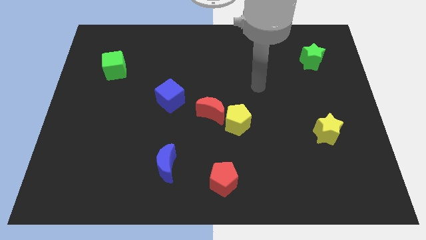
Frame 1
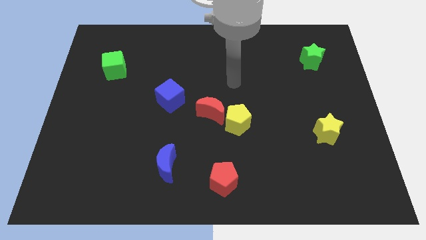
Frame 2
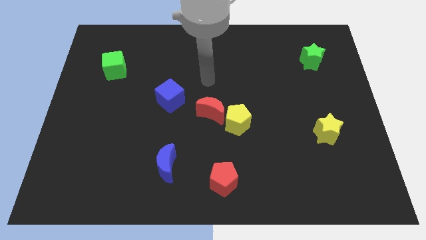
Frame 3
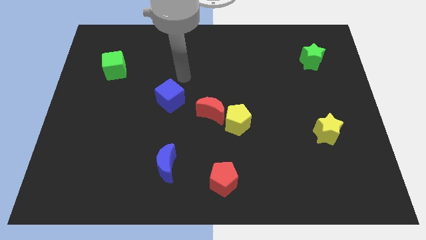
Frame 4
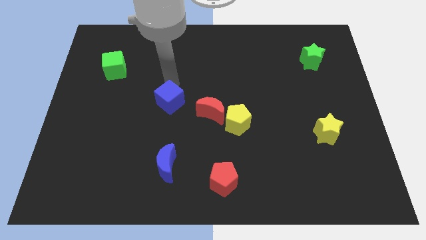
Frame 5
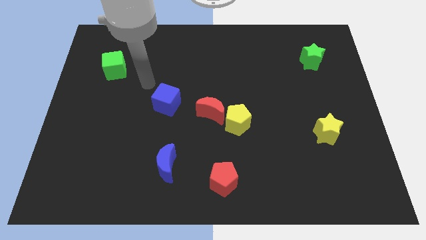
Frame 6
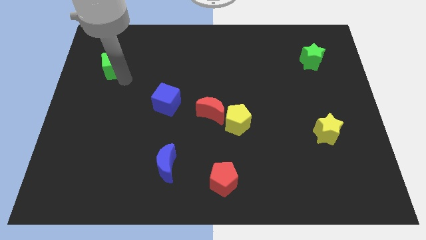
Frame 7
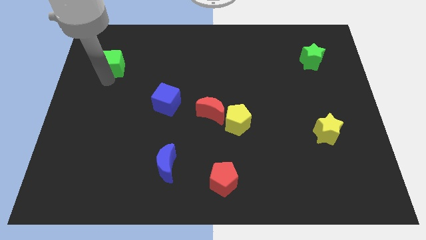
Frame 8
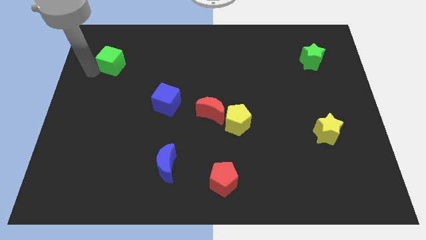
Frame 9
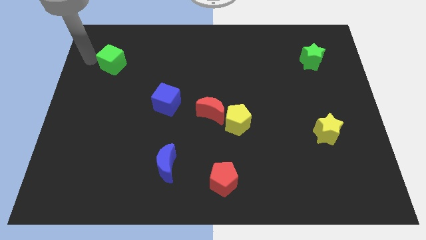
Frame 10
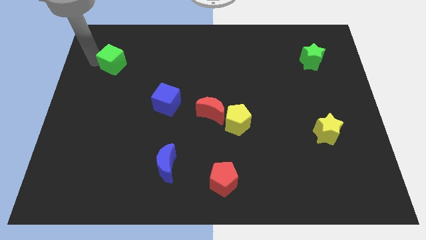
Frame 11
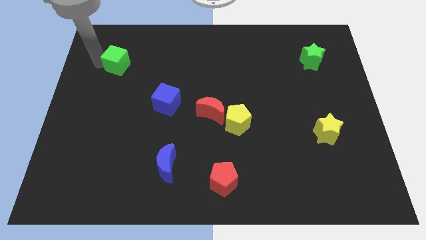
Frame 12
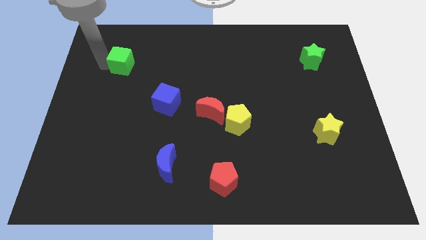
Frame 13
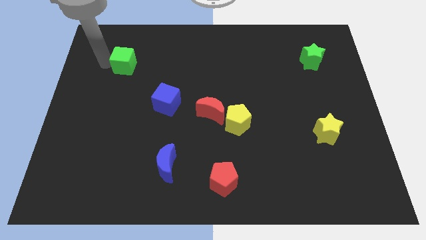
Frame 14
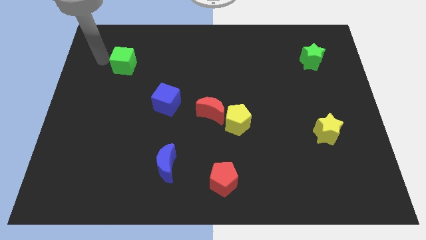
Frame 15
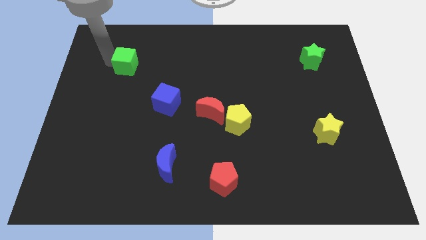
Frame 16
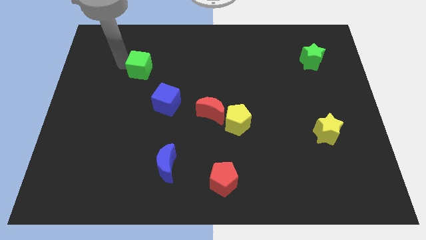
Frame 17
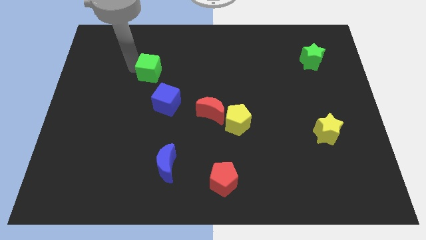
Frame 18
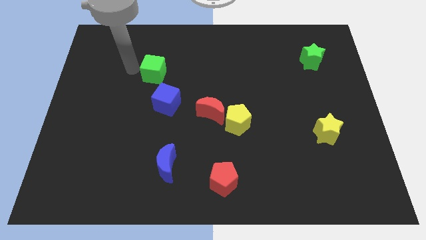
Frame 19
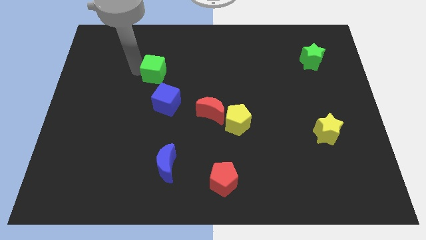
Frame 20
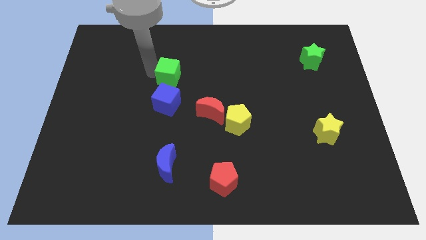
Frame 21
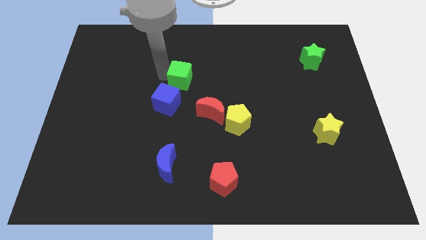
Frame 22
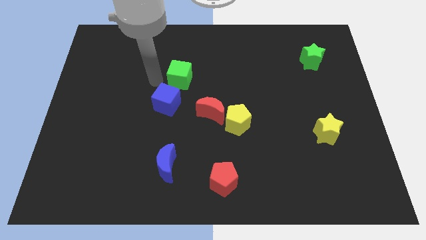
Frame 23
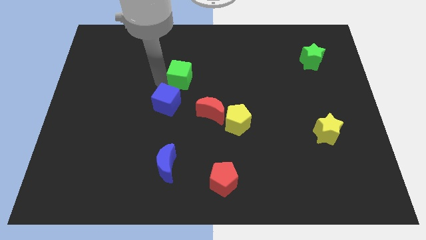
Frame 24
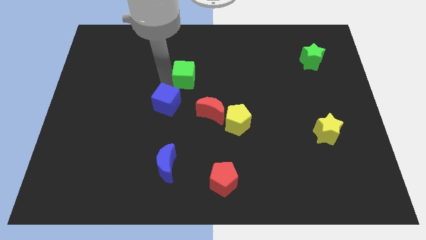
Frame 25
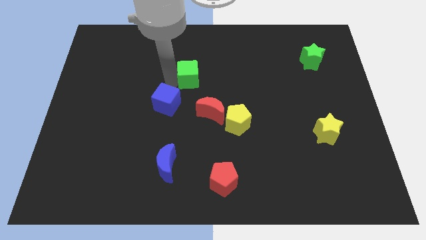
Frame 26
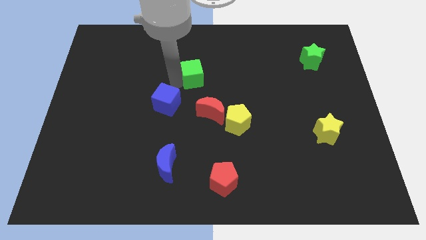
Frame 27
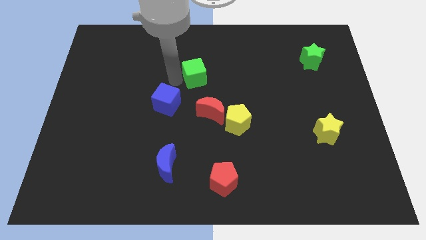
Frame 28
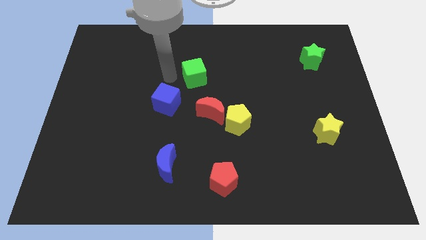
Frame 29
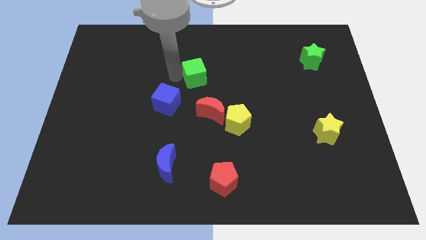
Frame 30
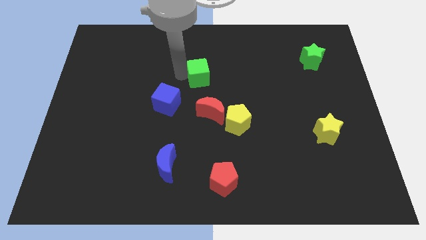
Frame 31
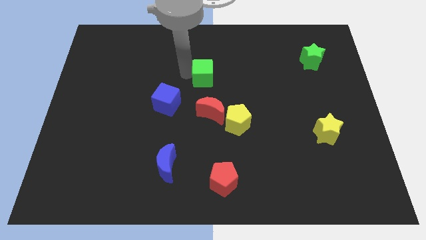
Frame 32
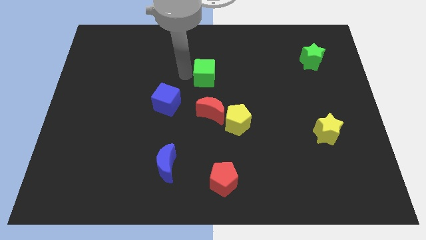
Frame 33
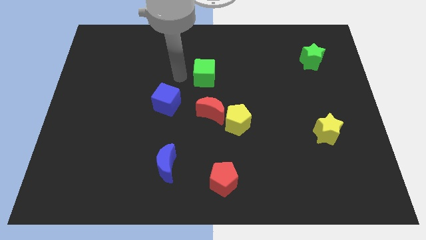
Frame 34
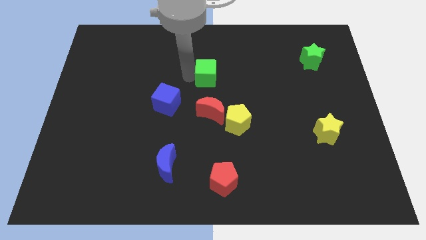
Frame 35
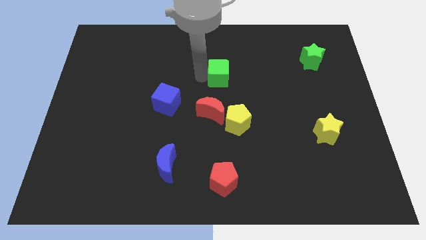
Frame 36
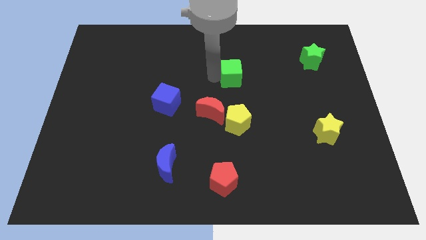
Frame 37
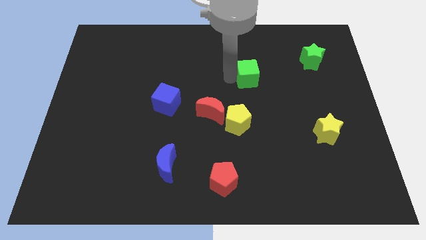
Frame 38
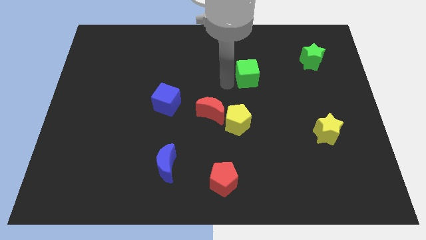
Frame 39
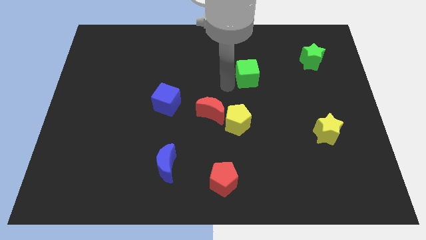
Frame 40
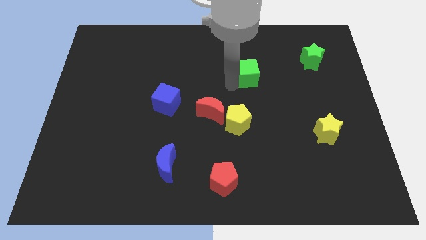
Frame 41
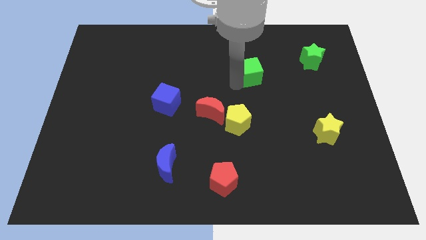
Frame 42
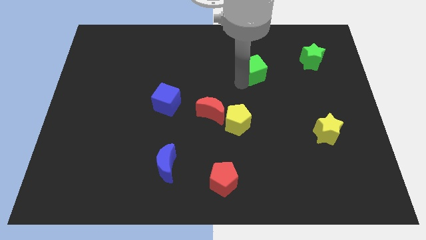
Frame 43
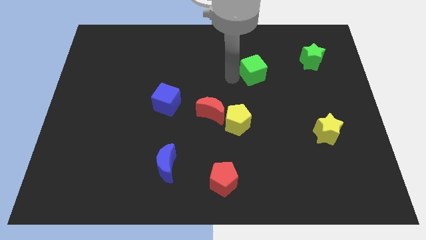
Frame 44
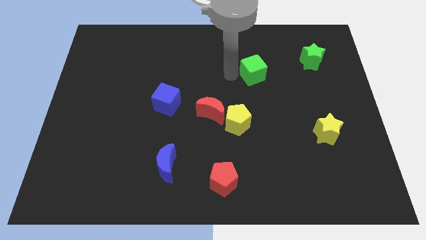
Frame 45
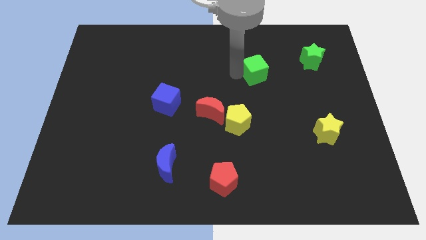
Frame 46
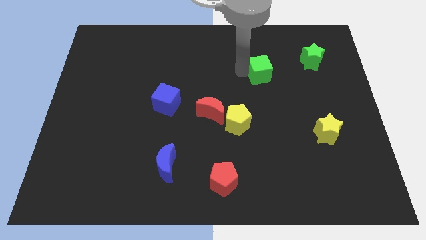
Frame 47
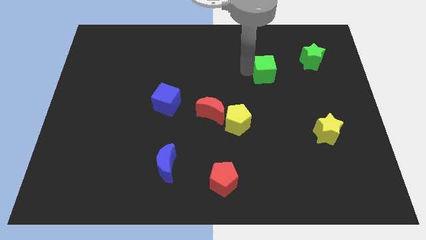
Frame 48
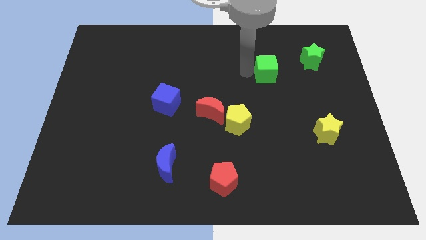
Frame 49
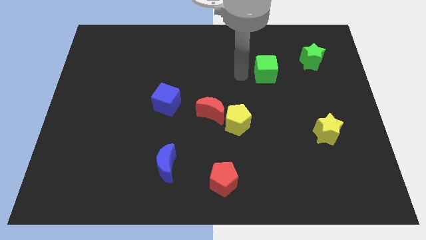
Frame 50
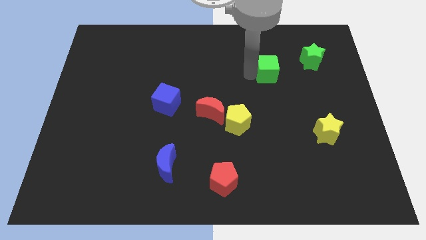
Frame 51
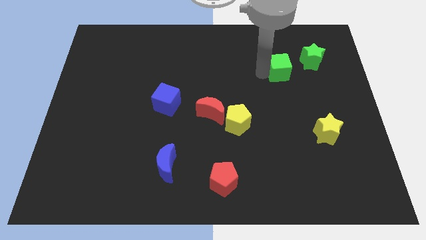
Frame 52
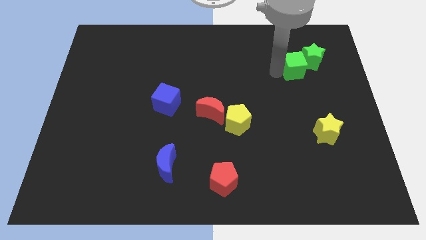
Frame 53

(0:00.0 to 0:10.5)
move the green cube to the green star

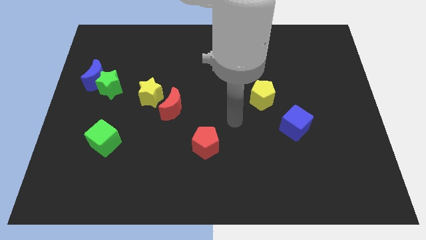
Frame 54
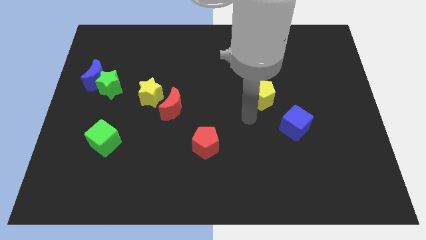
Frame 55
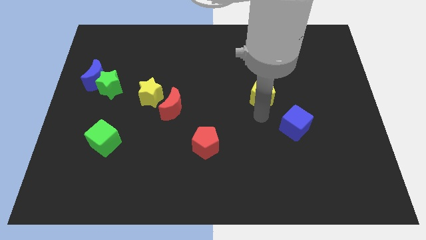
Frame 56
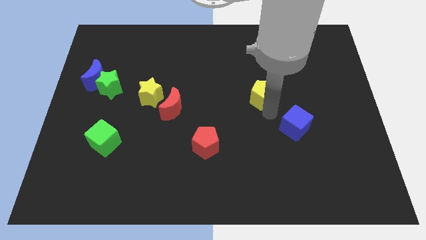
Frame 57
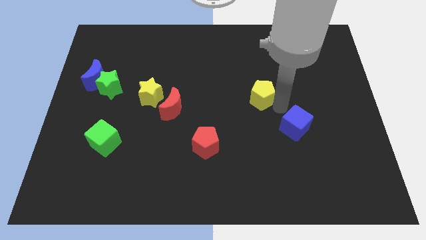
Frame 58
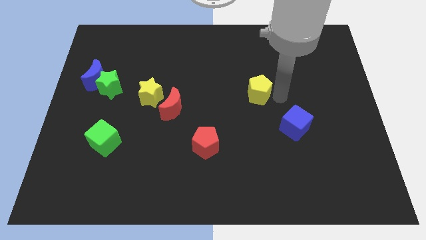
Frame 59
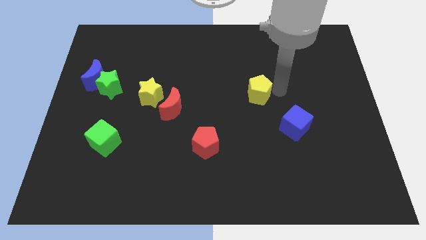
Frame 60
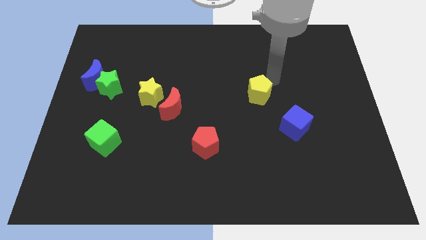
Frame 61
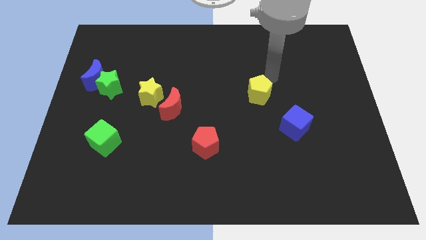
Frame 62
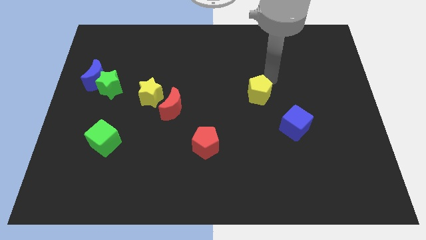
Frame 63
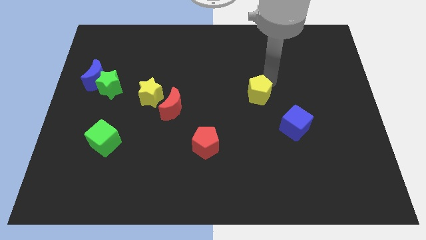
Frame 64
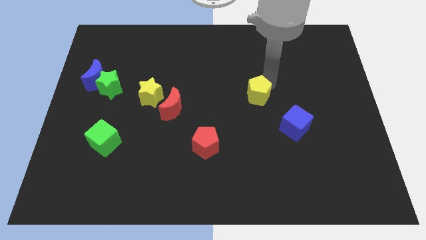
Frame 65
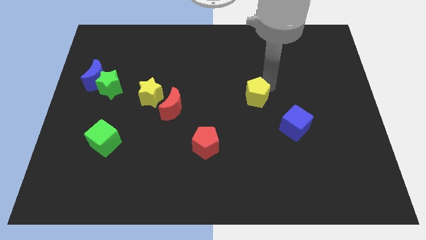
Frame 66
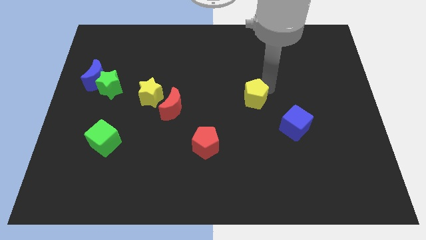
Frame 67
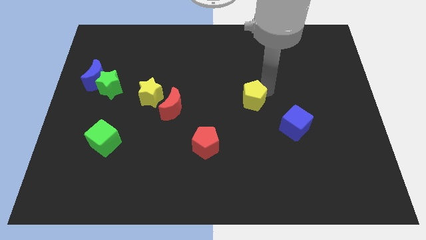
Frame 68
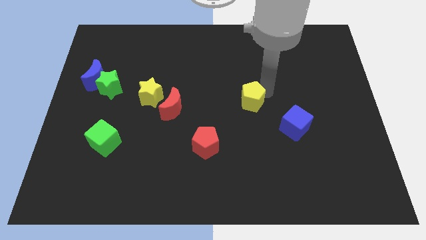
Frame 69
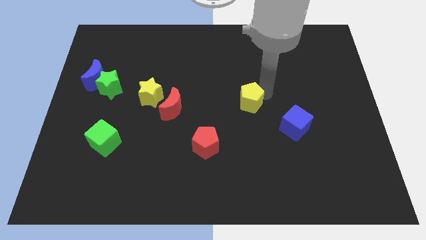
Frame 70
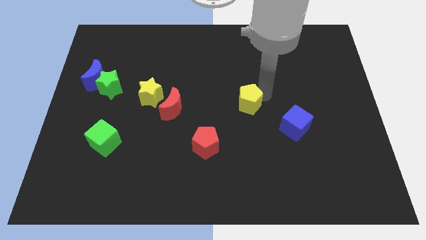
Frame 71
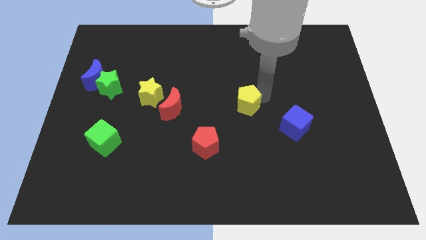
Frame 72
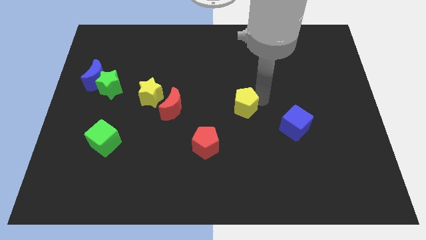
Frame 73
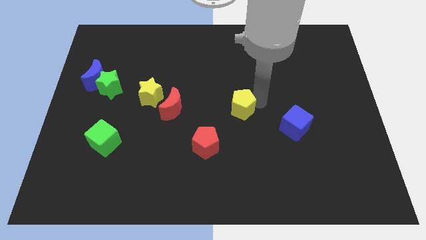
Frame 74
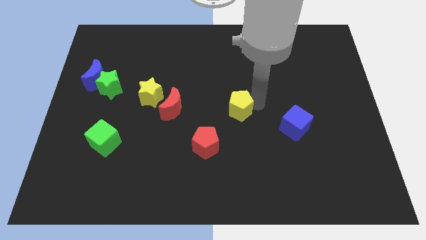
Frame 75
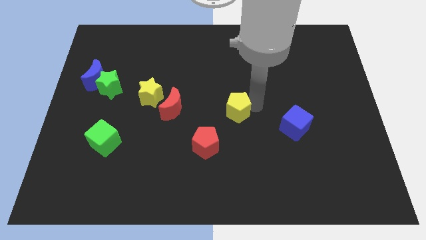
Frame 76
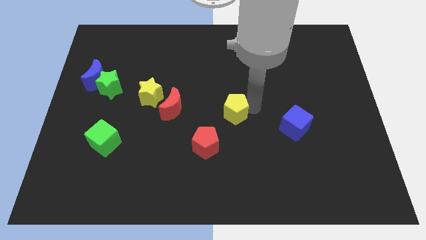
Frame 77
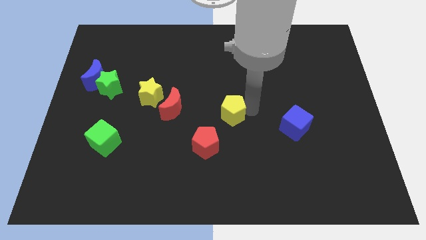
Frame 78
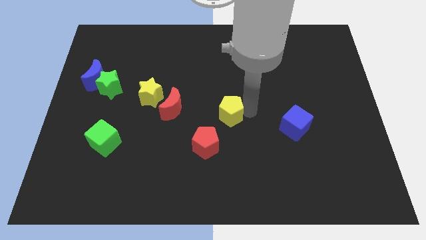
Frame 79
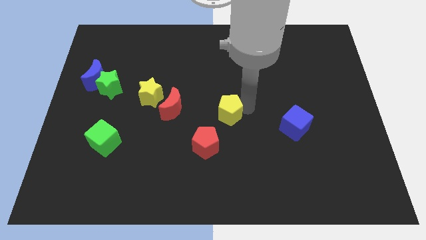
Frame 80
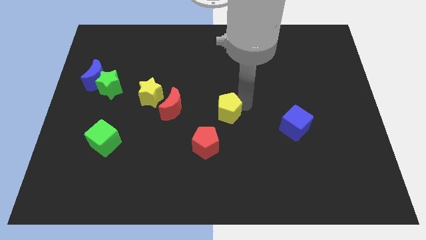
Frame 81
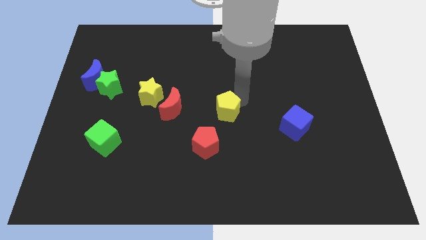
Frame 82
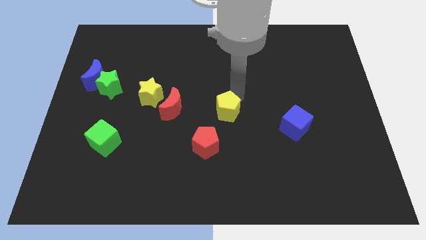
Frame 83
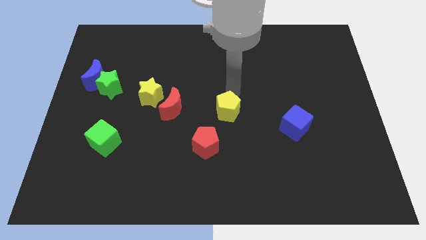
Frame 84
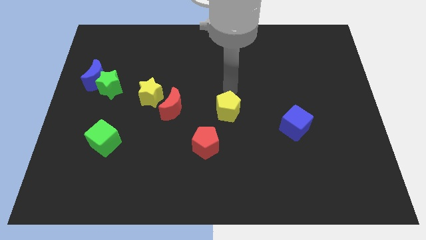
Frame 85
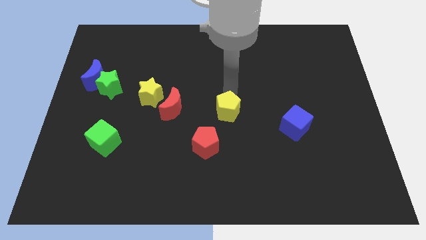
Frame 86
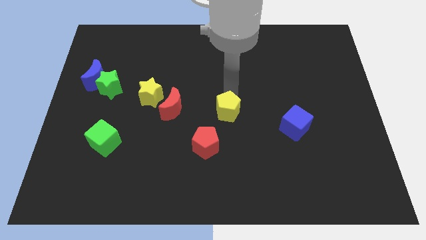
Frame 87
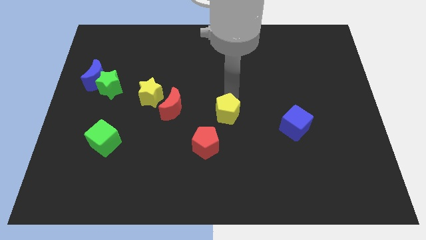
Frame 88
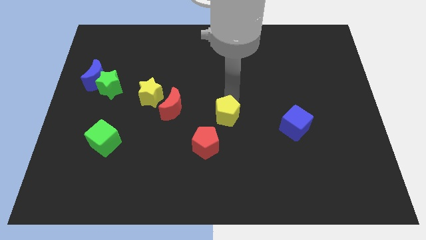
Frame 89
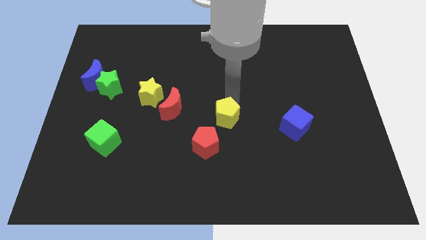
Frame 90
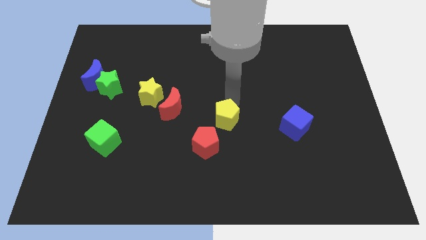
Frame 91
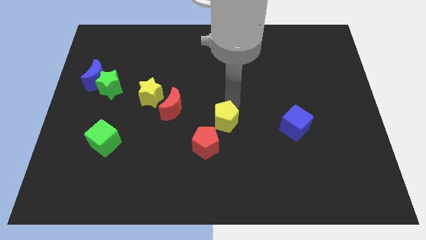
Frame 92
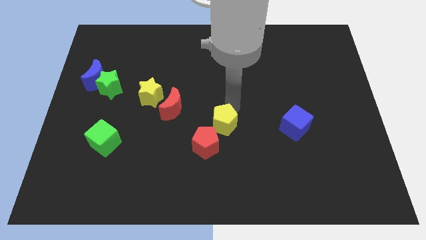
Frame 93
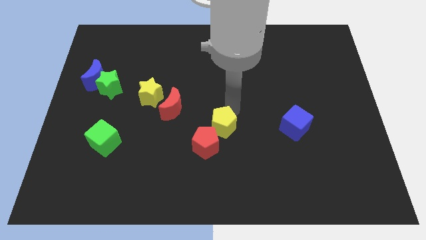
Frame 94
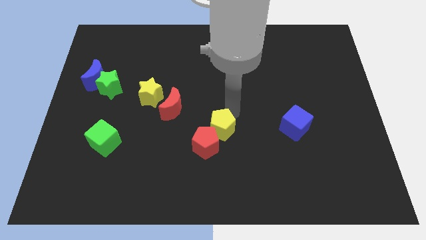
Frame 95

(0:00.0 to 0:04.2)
move the yellow pentagon to the red pentagon
